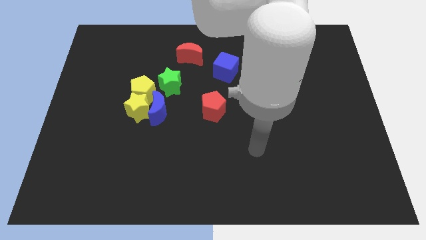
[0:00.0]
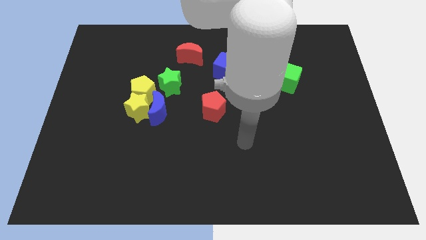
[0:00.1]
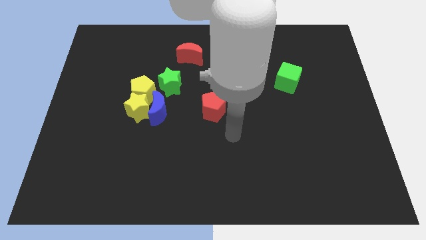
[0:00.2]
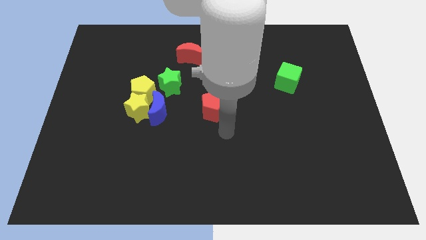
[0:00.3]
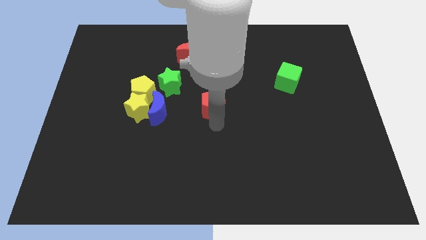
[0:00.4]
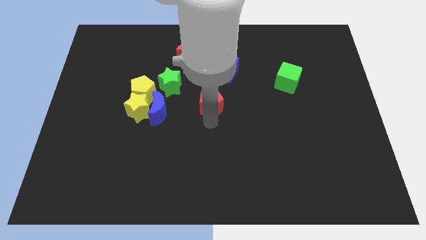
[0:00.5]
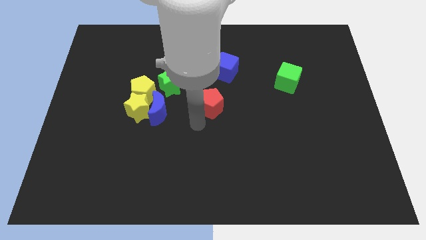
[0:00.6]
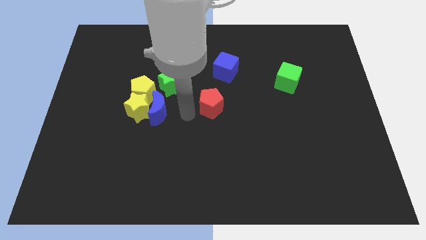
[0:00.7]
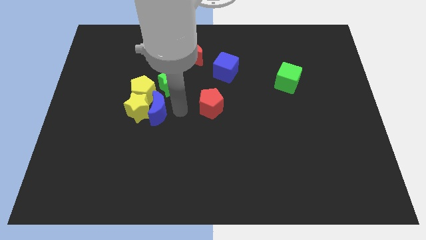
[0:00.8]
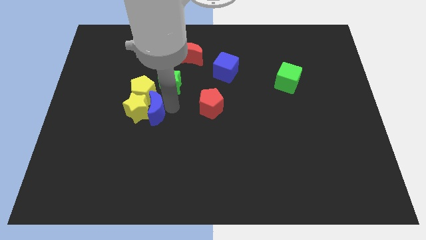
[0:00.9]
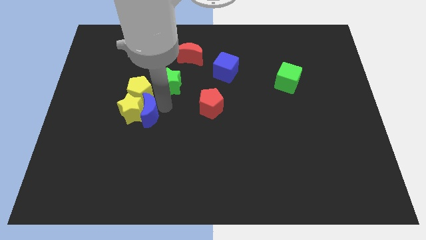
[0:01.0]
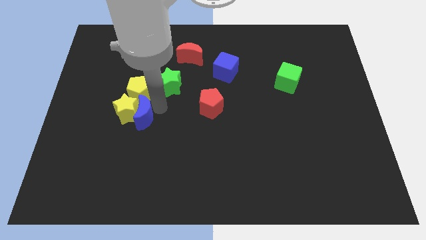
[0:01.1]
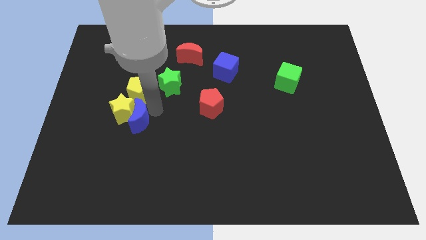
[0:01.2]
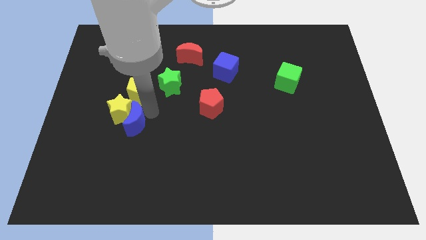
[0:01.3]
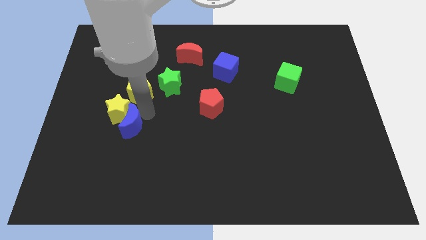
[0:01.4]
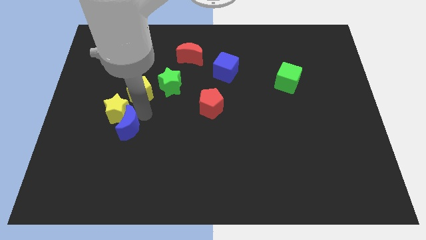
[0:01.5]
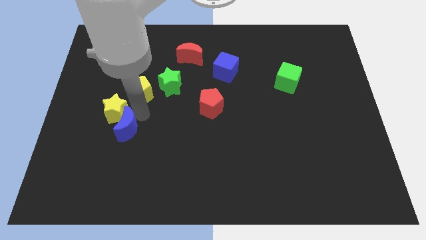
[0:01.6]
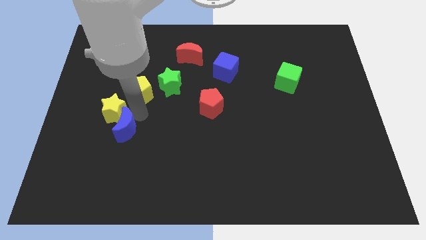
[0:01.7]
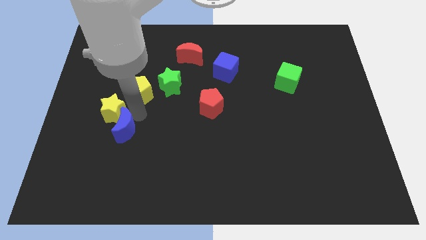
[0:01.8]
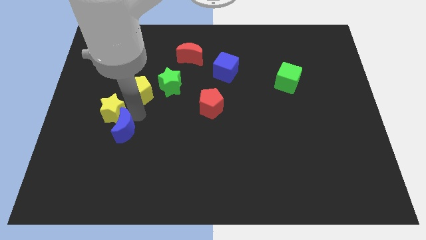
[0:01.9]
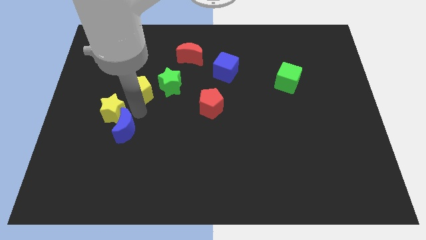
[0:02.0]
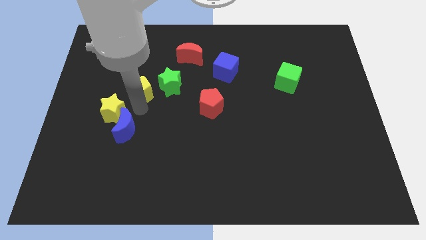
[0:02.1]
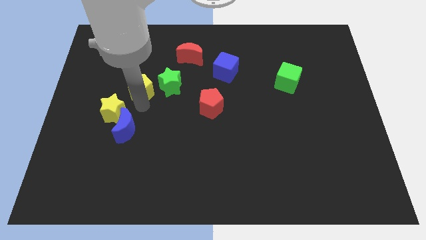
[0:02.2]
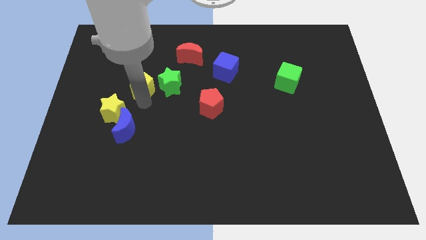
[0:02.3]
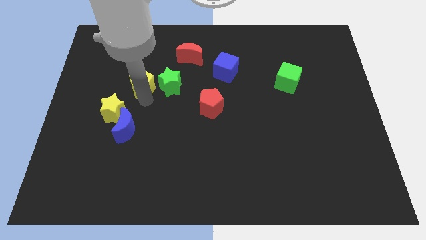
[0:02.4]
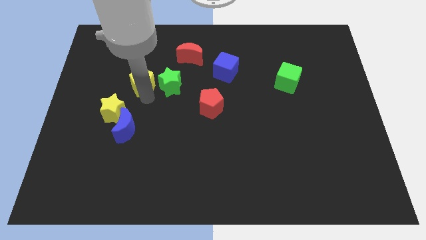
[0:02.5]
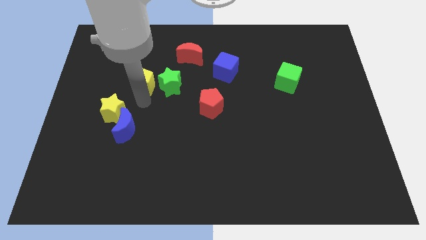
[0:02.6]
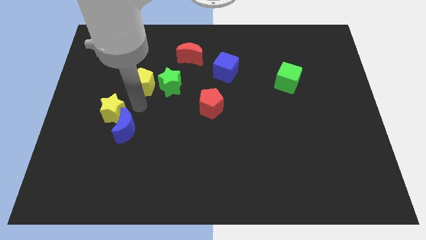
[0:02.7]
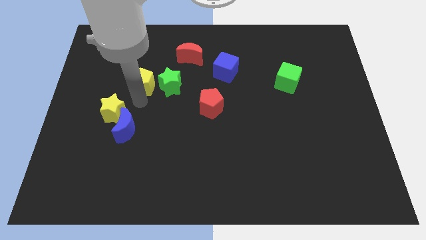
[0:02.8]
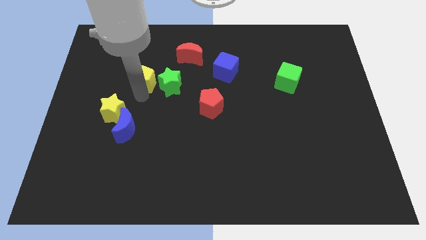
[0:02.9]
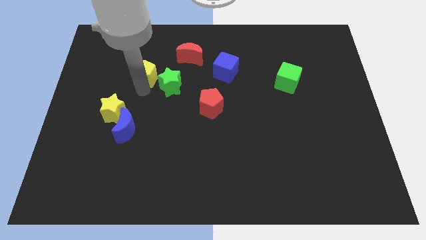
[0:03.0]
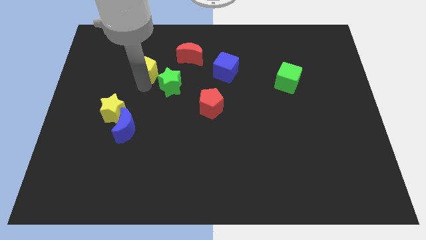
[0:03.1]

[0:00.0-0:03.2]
move the yellow pentagon away from the group of blocks

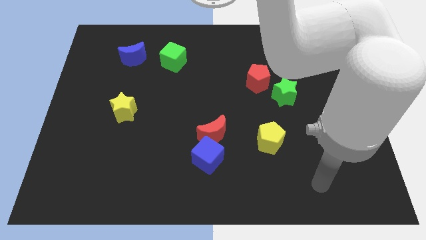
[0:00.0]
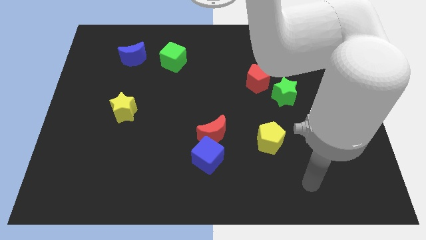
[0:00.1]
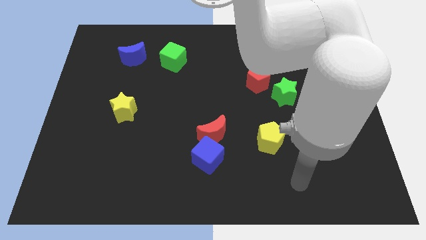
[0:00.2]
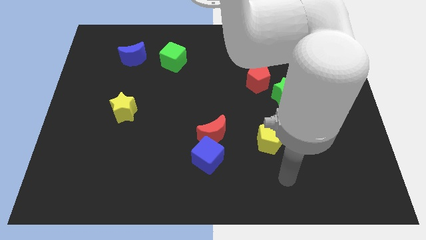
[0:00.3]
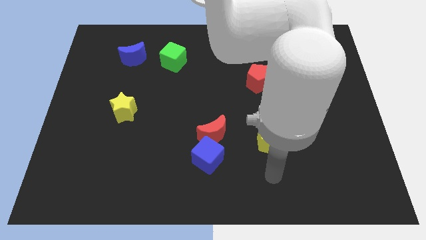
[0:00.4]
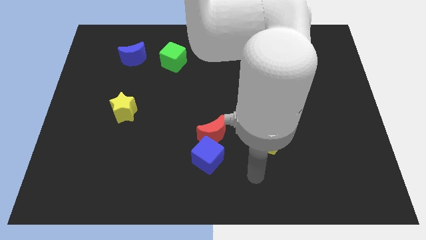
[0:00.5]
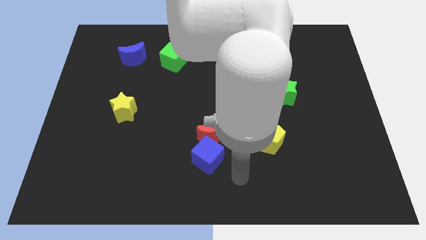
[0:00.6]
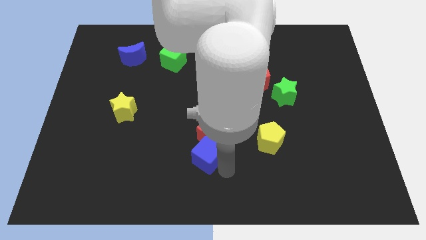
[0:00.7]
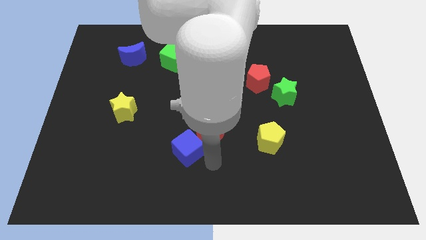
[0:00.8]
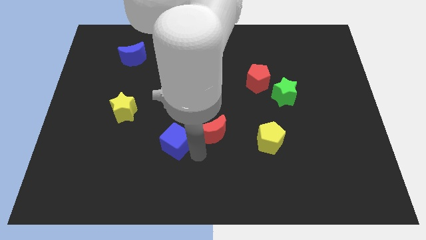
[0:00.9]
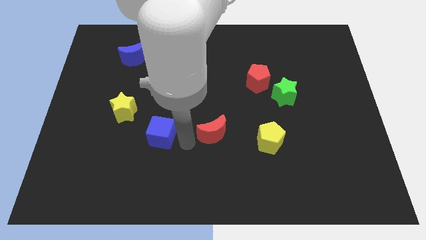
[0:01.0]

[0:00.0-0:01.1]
separate the red moon from the blue cube

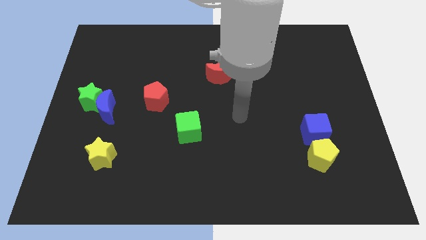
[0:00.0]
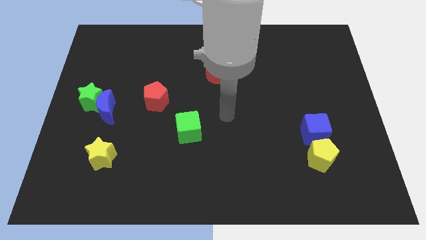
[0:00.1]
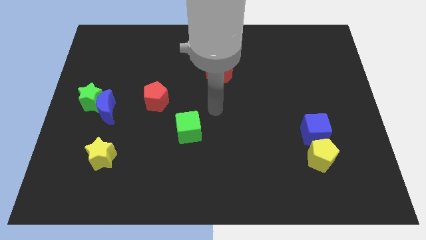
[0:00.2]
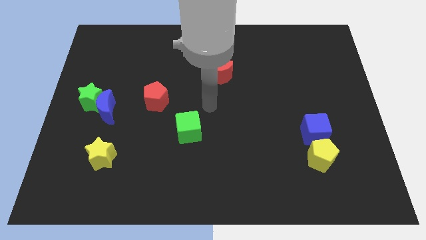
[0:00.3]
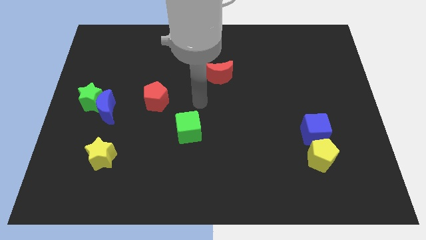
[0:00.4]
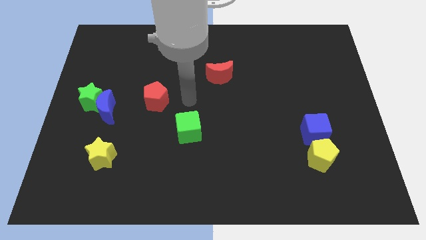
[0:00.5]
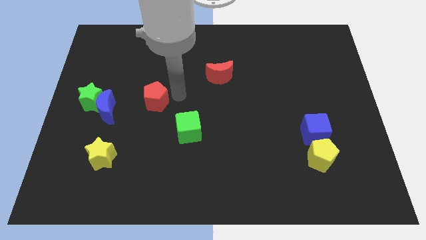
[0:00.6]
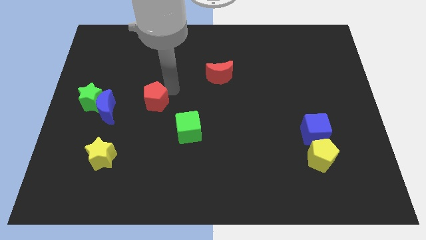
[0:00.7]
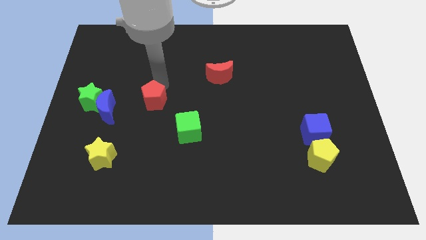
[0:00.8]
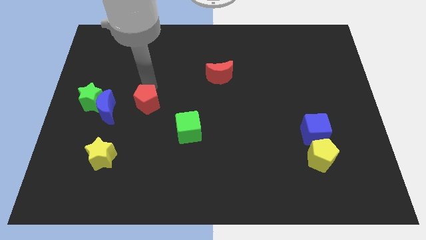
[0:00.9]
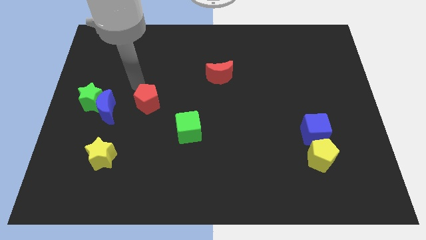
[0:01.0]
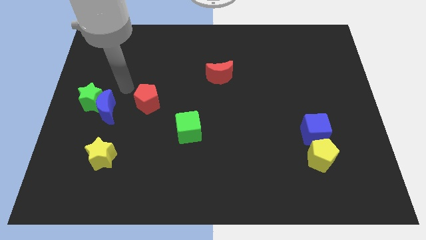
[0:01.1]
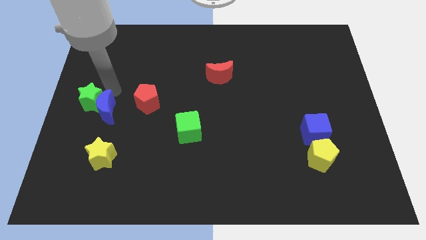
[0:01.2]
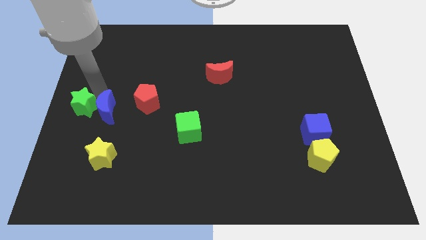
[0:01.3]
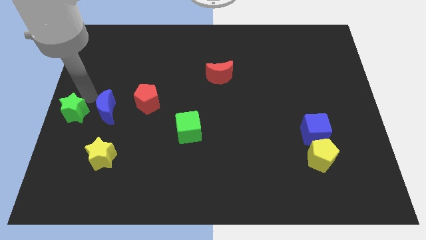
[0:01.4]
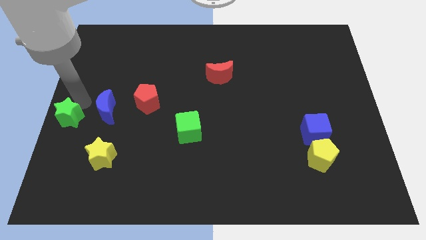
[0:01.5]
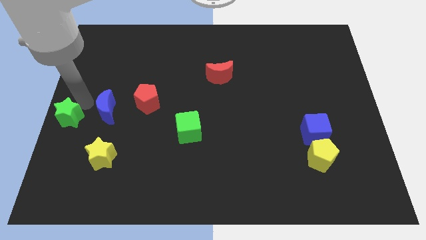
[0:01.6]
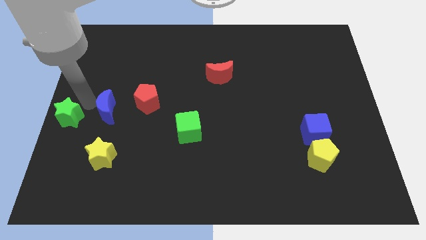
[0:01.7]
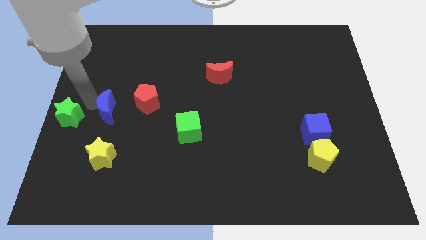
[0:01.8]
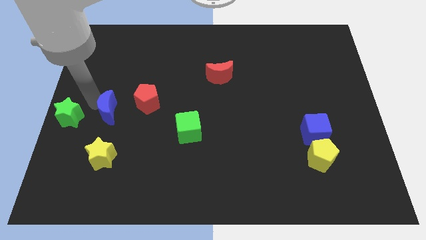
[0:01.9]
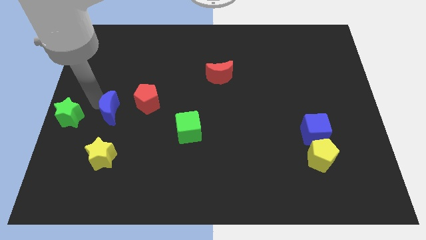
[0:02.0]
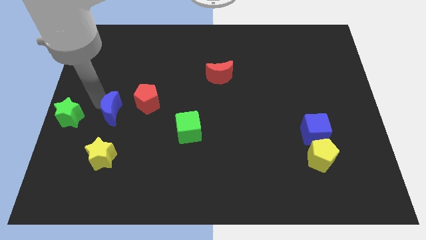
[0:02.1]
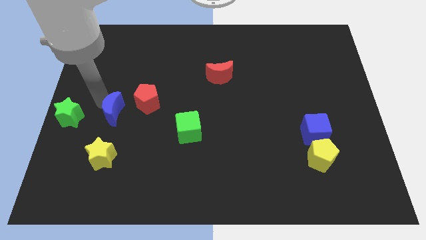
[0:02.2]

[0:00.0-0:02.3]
separate the blue moon from the green star

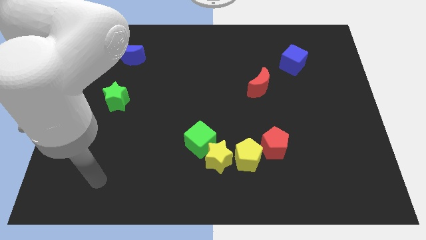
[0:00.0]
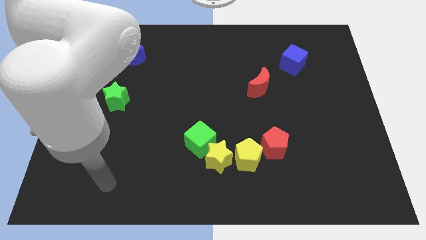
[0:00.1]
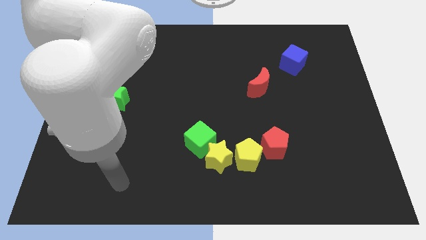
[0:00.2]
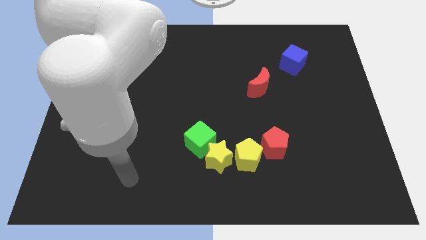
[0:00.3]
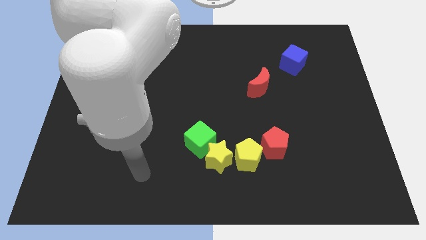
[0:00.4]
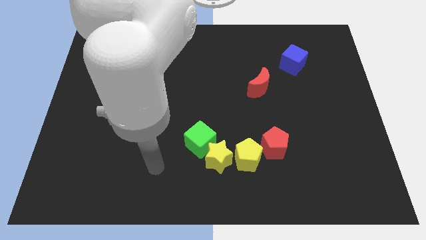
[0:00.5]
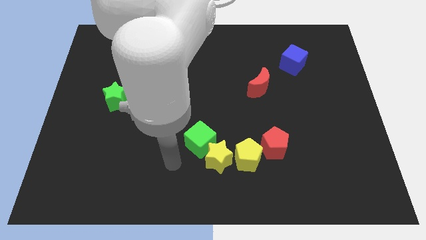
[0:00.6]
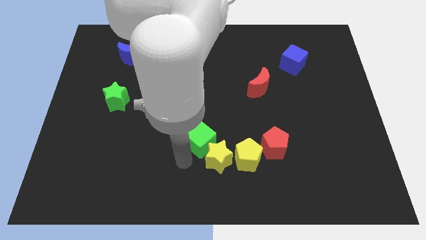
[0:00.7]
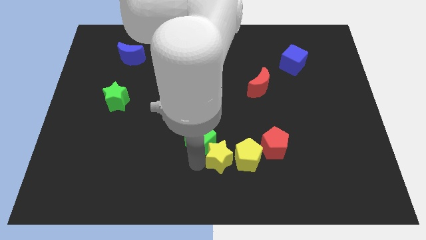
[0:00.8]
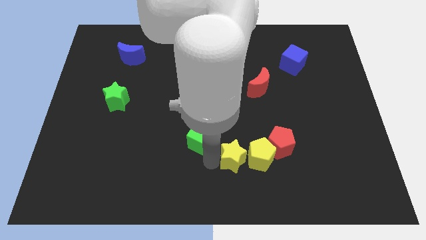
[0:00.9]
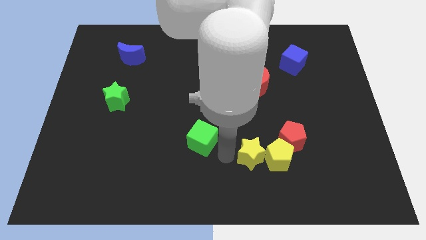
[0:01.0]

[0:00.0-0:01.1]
separate the green cube from the yellow star

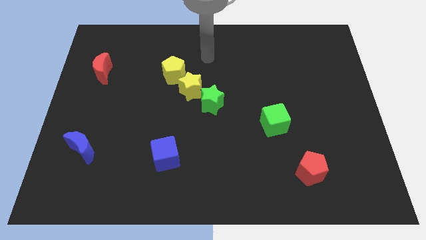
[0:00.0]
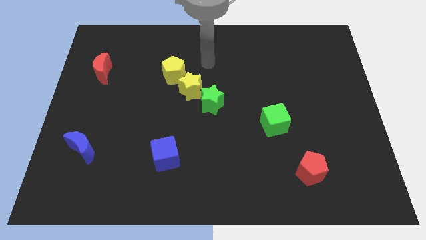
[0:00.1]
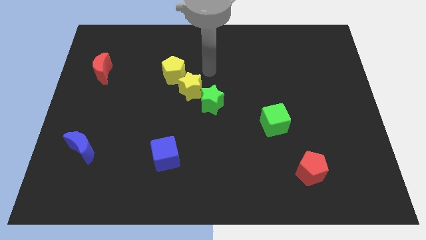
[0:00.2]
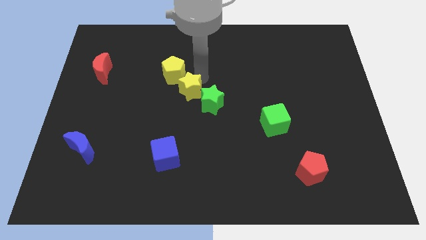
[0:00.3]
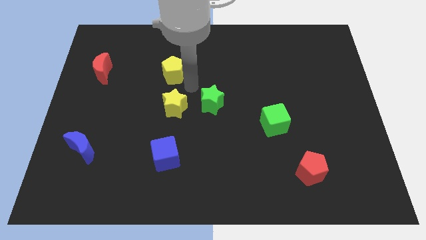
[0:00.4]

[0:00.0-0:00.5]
separate the yellow pentagon from the yellow star

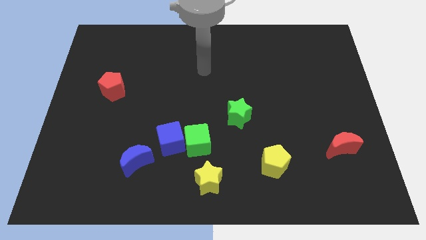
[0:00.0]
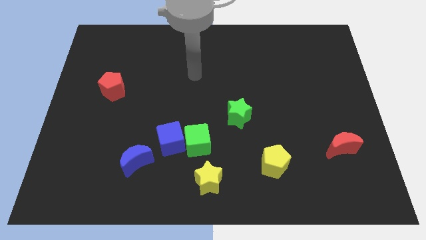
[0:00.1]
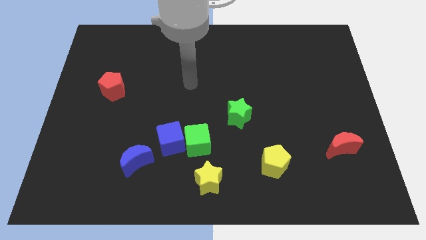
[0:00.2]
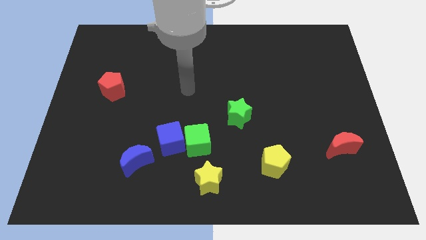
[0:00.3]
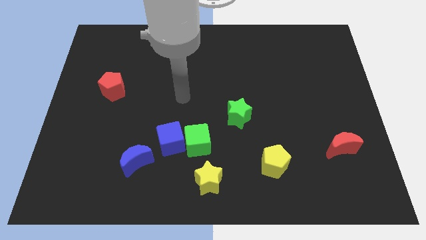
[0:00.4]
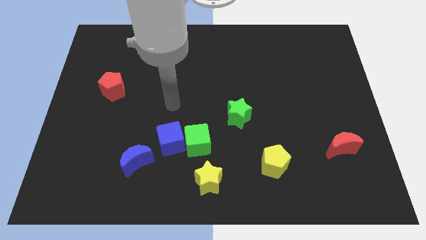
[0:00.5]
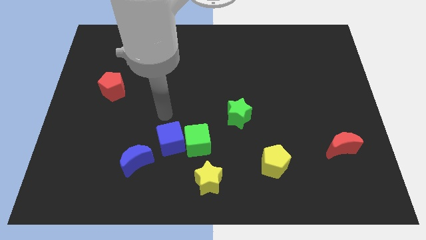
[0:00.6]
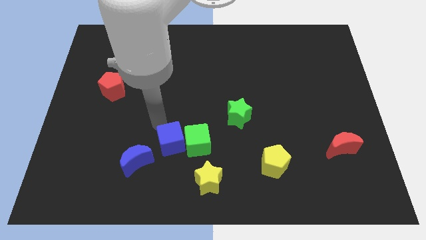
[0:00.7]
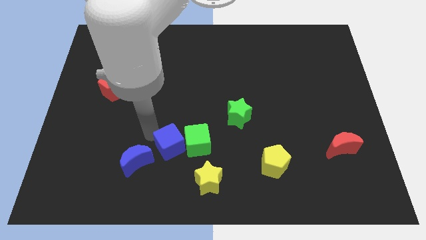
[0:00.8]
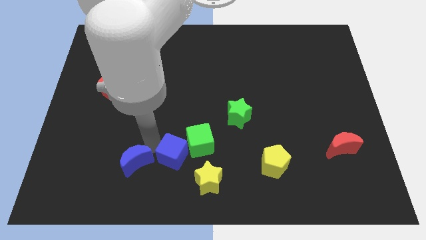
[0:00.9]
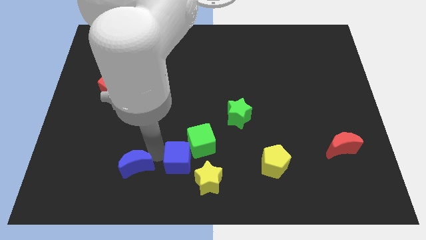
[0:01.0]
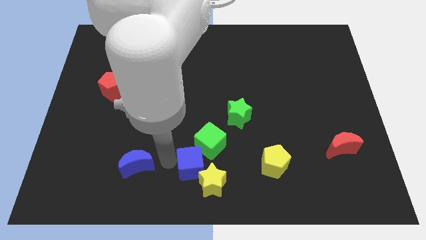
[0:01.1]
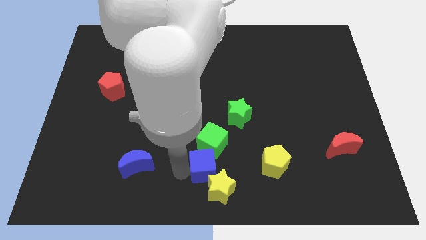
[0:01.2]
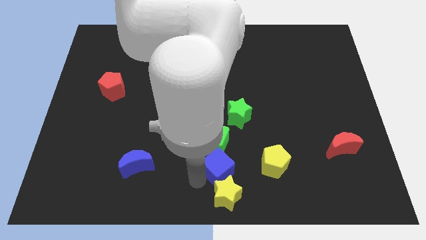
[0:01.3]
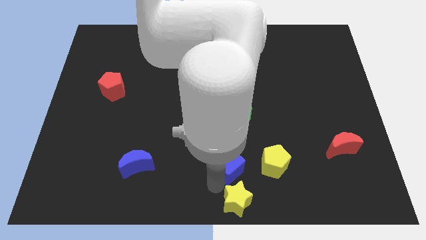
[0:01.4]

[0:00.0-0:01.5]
move the blue cube away from the green cube and blue moon
